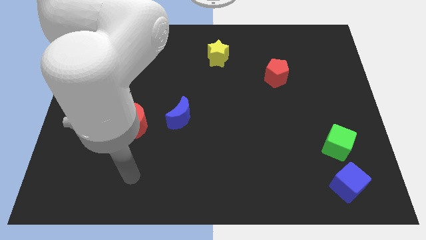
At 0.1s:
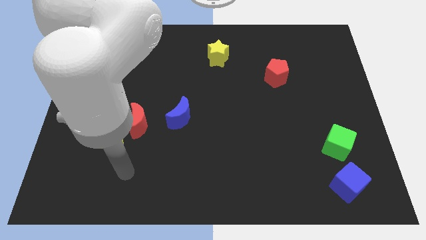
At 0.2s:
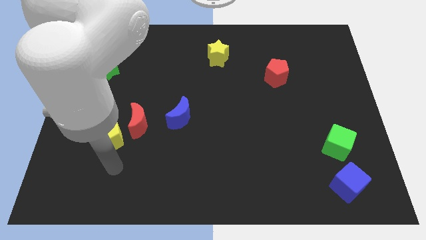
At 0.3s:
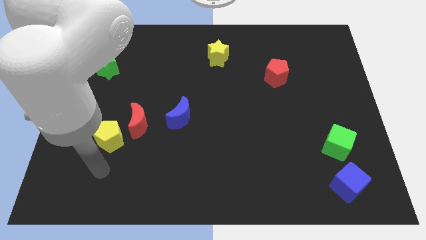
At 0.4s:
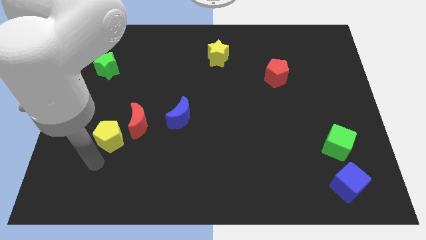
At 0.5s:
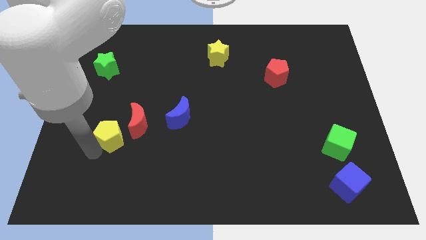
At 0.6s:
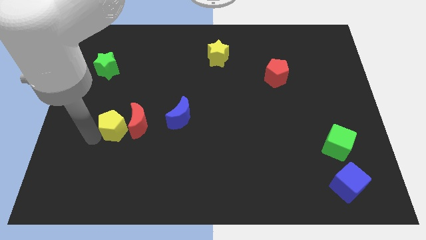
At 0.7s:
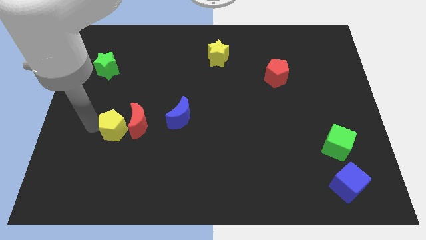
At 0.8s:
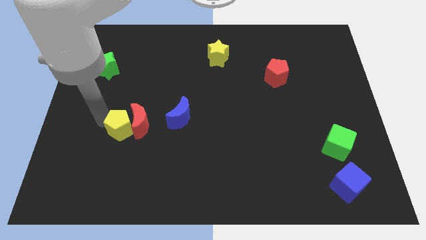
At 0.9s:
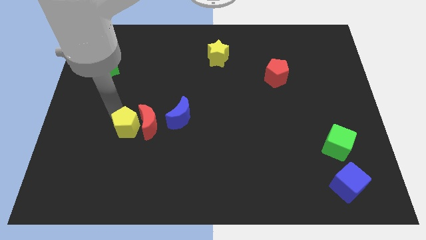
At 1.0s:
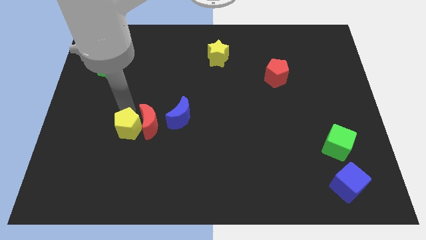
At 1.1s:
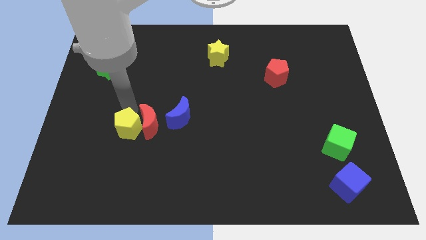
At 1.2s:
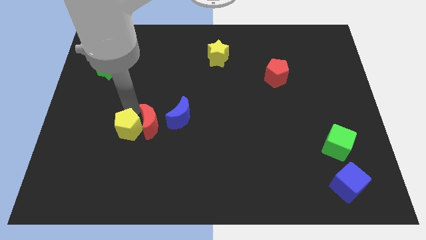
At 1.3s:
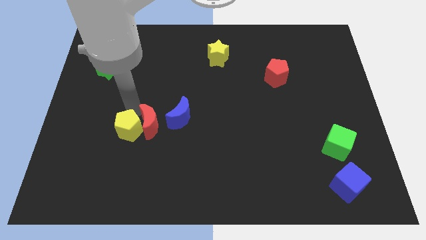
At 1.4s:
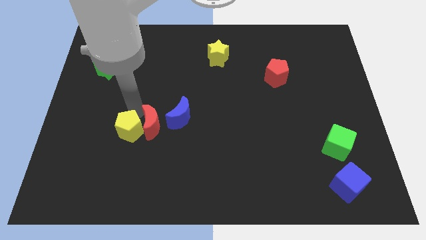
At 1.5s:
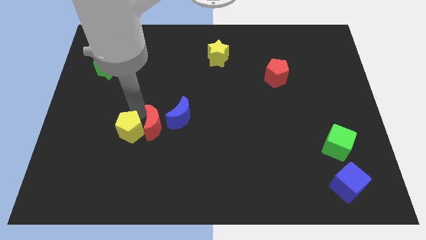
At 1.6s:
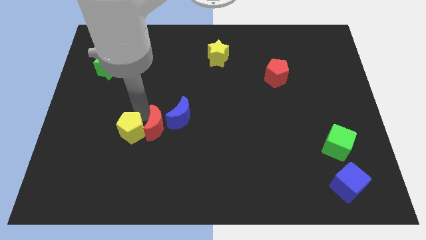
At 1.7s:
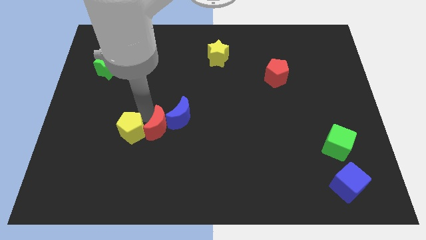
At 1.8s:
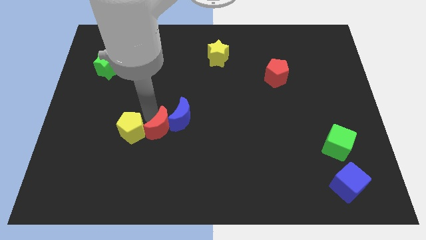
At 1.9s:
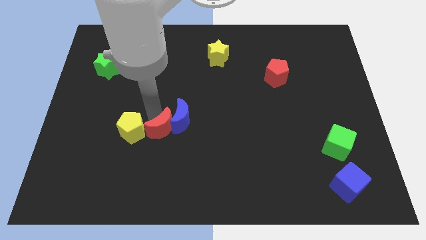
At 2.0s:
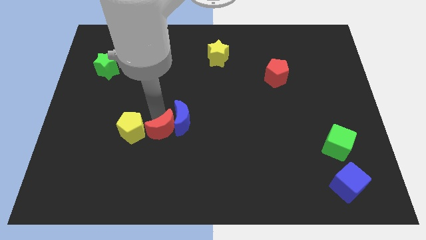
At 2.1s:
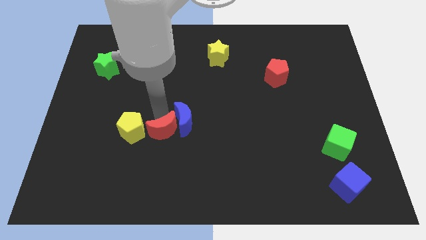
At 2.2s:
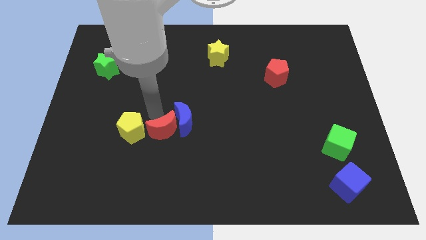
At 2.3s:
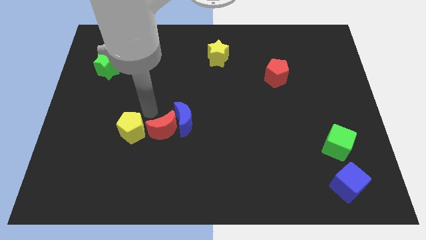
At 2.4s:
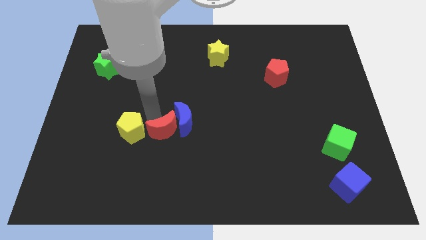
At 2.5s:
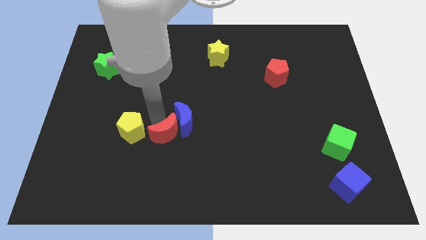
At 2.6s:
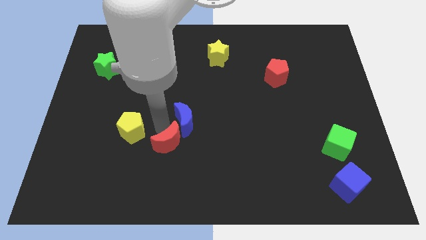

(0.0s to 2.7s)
move the red moon down and to the right somewhat

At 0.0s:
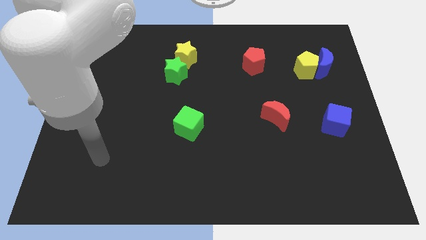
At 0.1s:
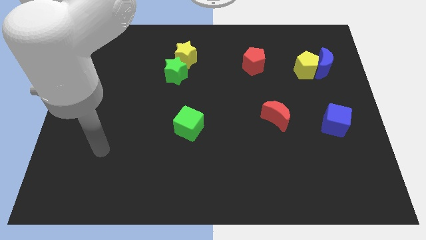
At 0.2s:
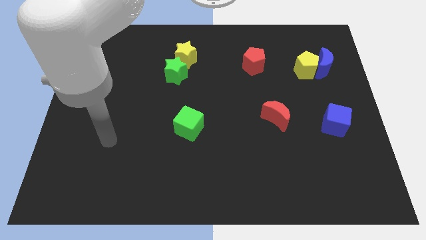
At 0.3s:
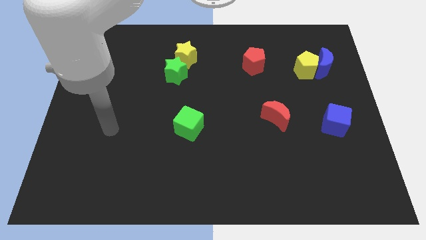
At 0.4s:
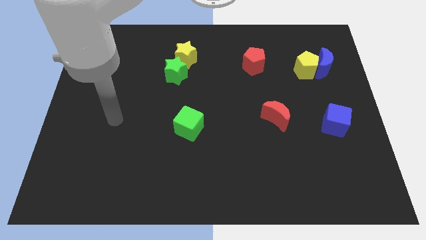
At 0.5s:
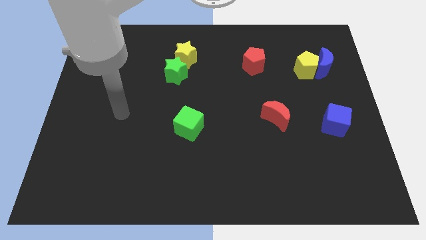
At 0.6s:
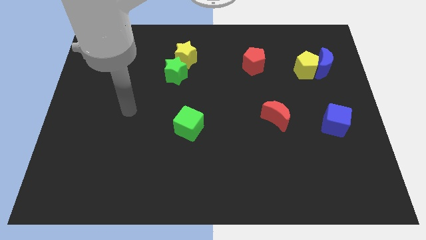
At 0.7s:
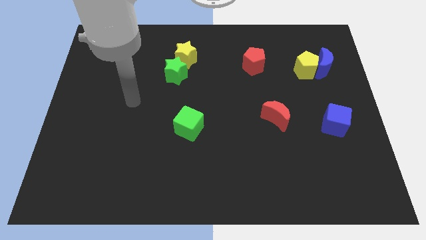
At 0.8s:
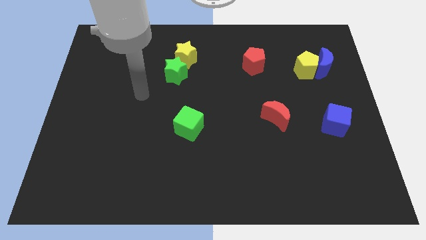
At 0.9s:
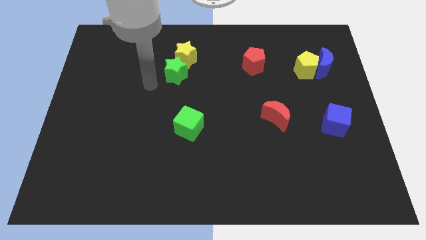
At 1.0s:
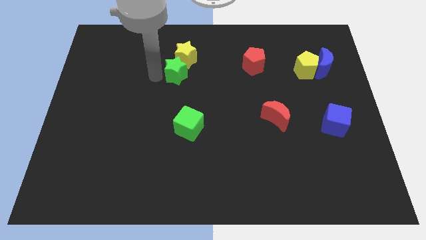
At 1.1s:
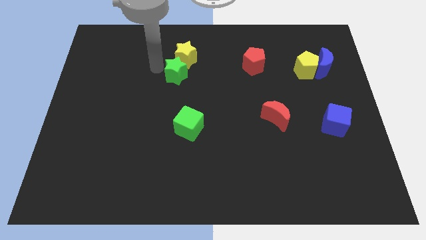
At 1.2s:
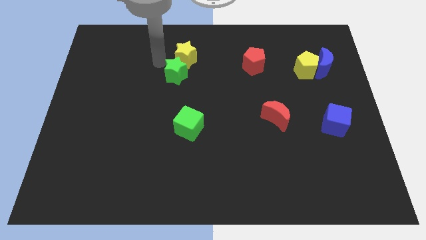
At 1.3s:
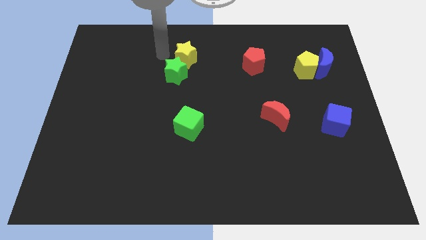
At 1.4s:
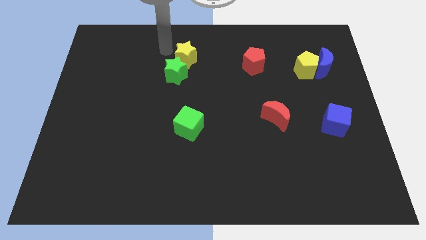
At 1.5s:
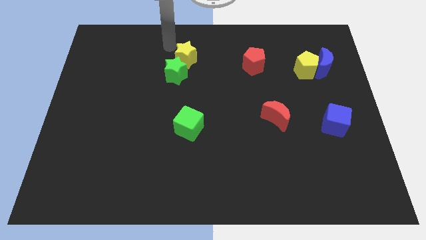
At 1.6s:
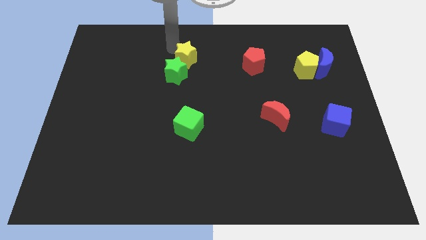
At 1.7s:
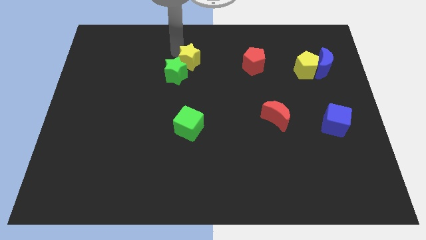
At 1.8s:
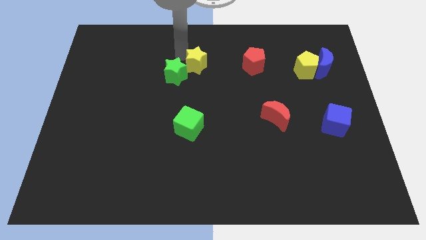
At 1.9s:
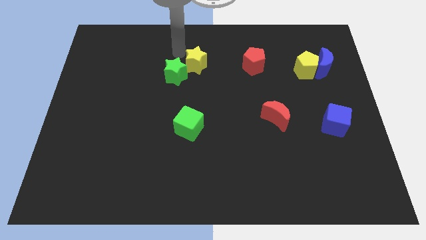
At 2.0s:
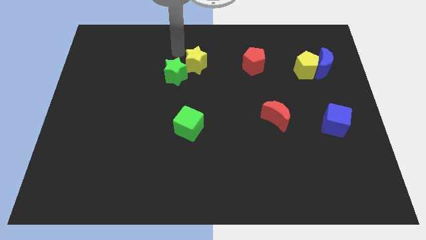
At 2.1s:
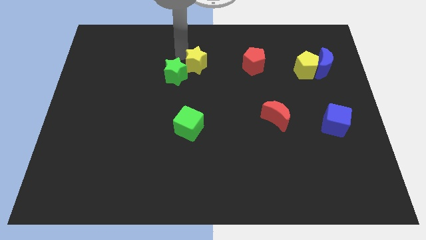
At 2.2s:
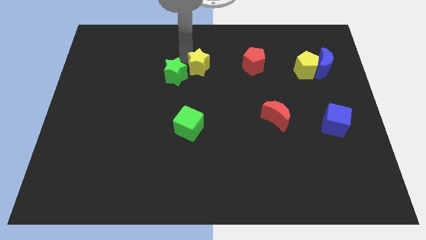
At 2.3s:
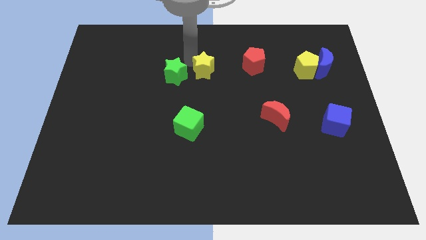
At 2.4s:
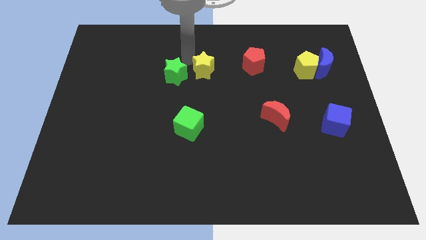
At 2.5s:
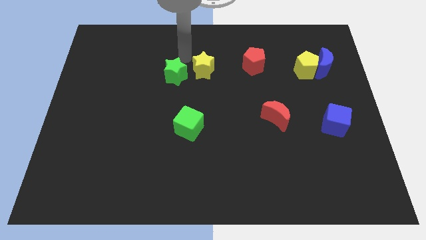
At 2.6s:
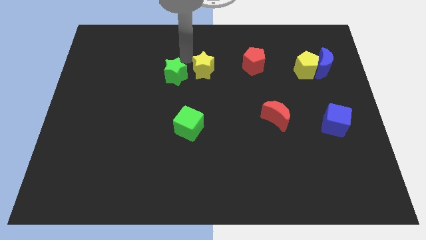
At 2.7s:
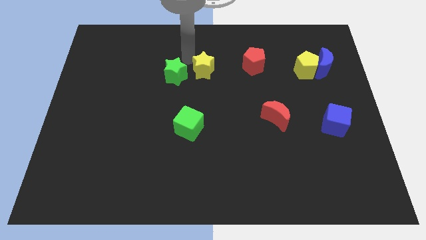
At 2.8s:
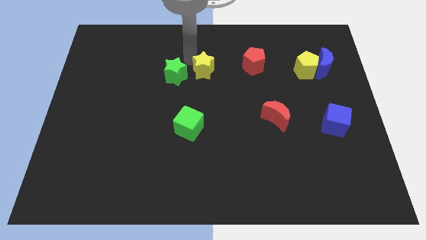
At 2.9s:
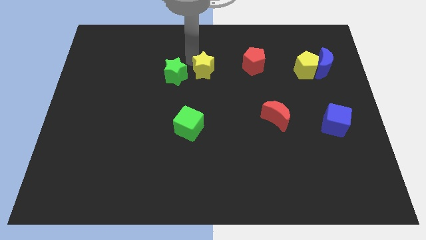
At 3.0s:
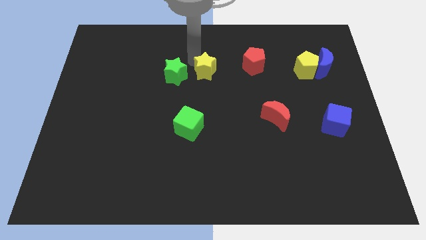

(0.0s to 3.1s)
slightly slide the yellow star downwards and right diagonally

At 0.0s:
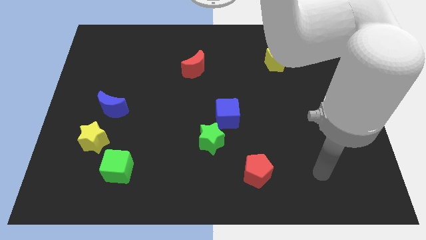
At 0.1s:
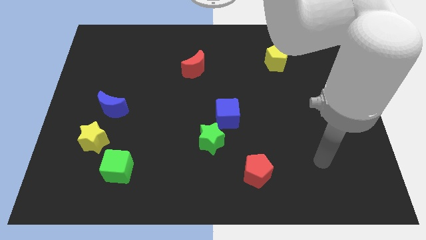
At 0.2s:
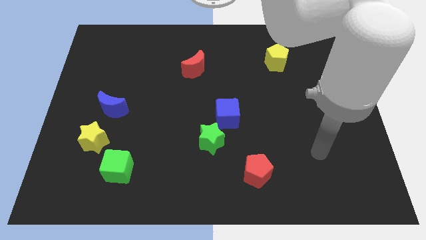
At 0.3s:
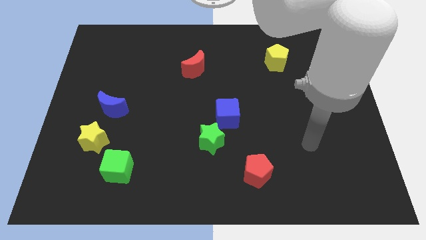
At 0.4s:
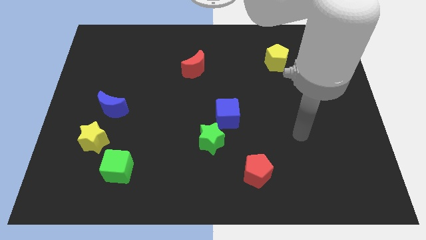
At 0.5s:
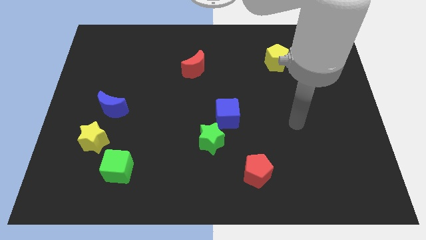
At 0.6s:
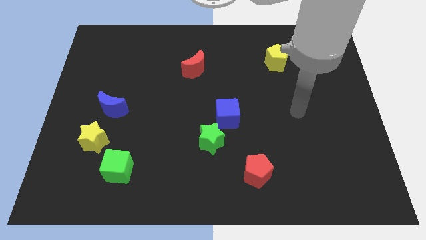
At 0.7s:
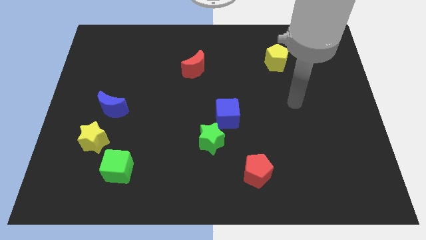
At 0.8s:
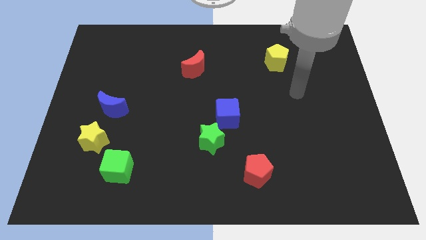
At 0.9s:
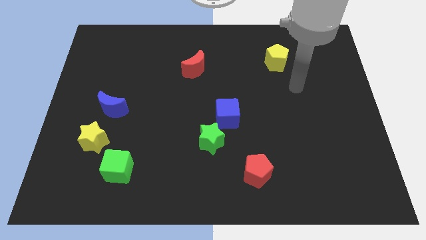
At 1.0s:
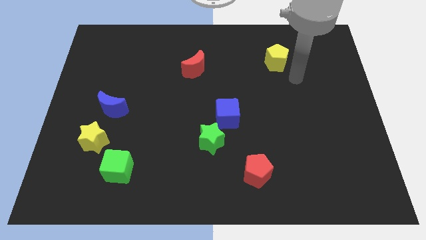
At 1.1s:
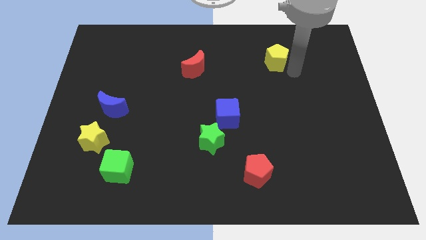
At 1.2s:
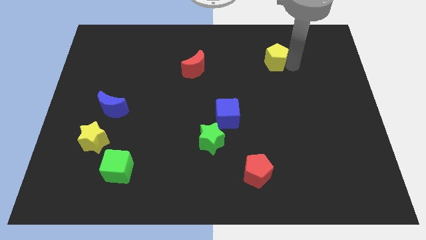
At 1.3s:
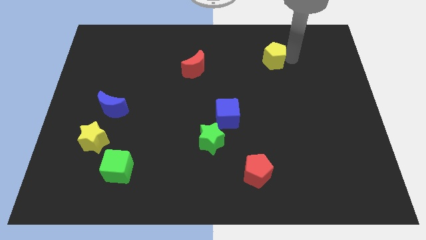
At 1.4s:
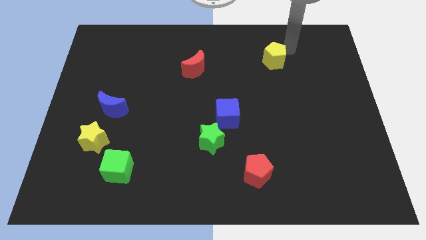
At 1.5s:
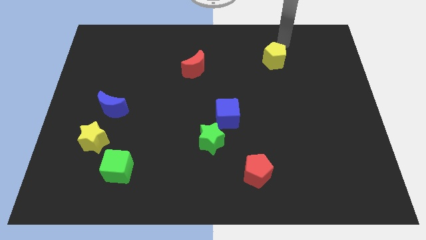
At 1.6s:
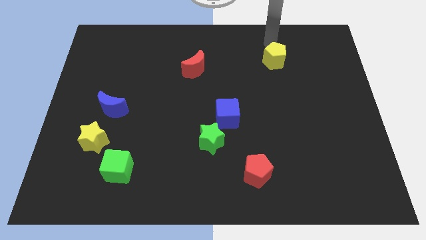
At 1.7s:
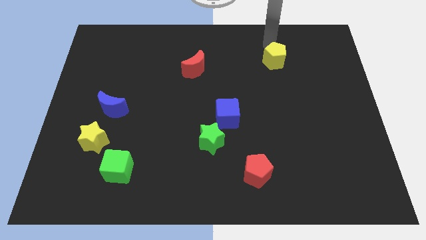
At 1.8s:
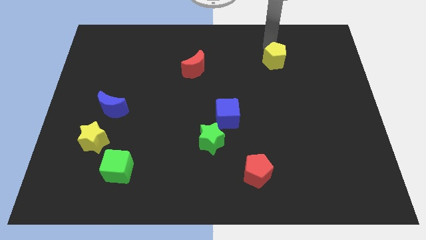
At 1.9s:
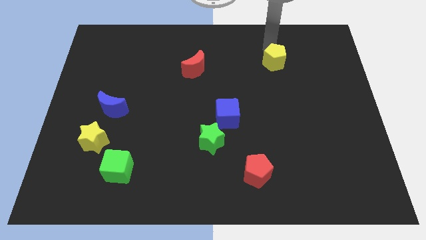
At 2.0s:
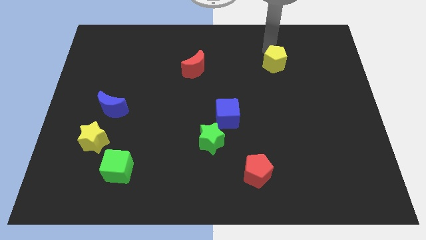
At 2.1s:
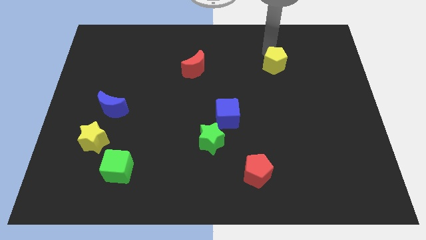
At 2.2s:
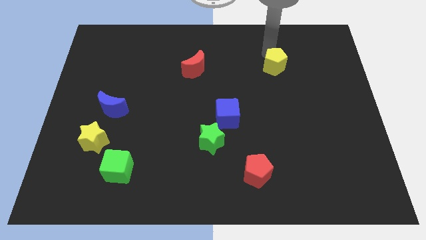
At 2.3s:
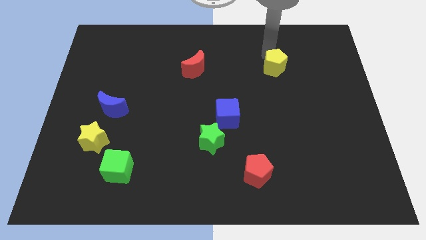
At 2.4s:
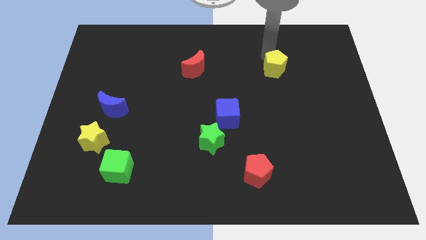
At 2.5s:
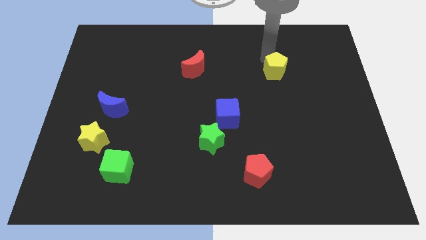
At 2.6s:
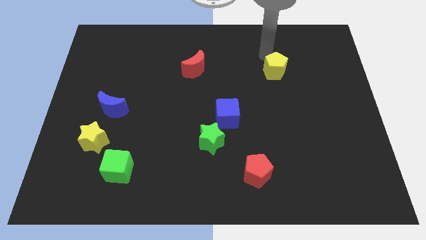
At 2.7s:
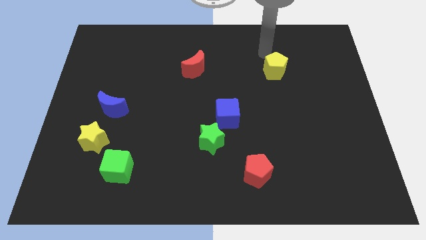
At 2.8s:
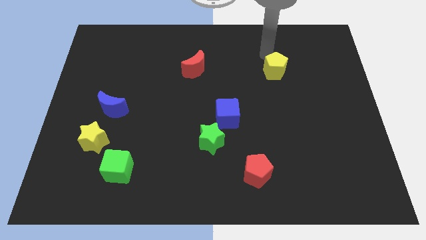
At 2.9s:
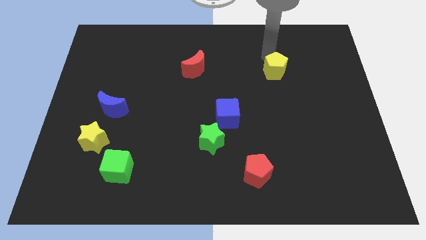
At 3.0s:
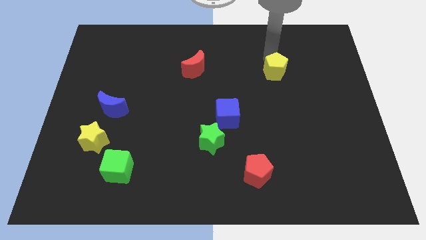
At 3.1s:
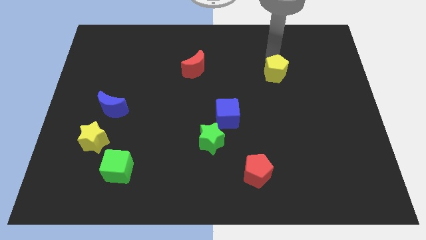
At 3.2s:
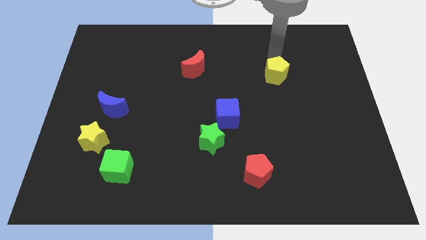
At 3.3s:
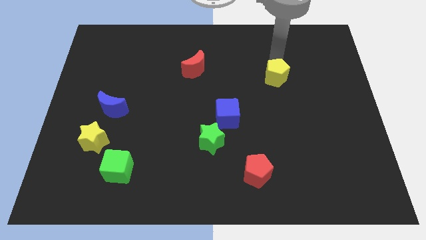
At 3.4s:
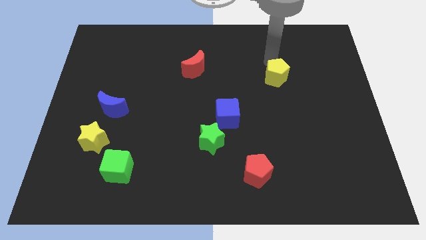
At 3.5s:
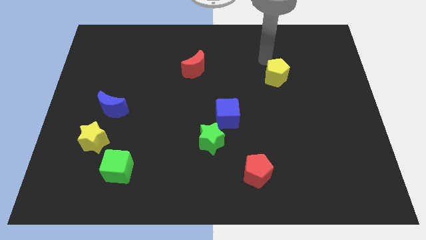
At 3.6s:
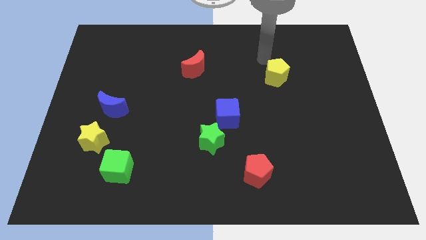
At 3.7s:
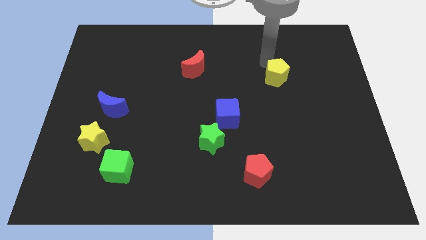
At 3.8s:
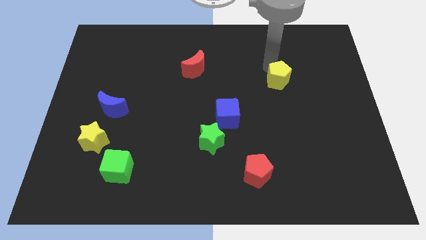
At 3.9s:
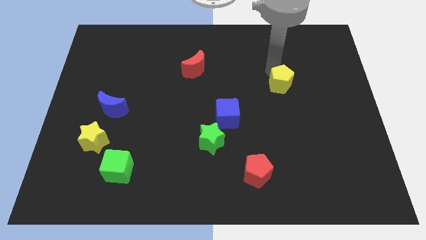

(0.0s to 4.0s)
push the yellow pentagon down a little bit
